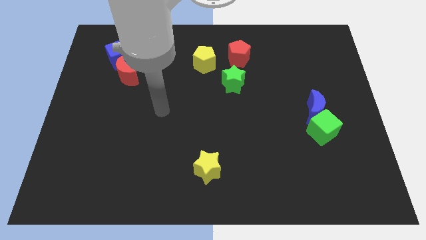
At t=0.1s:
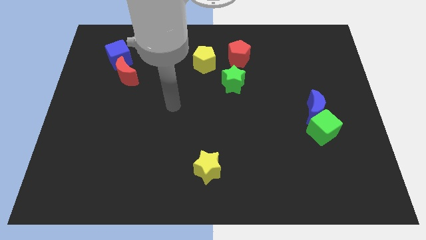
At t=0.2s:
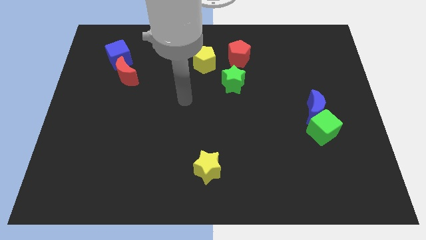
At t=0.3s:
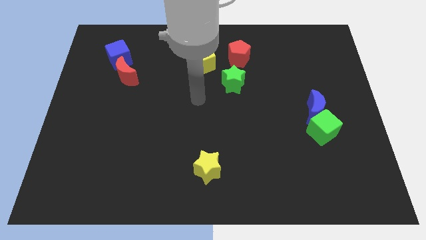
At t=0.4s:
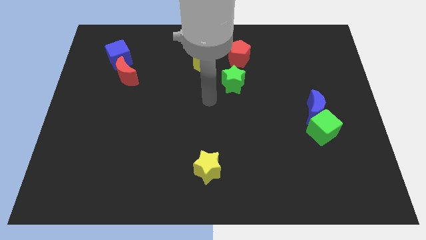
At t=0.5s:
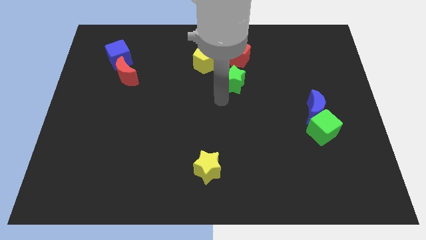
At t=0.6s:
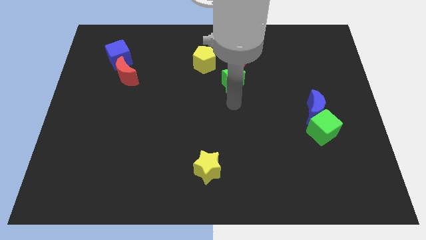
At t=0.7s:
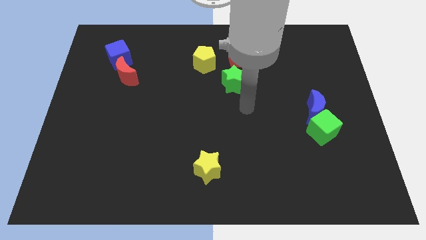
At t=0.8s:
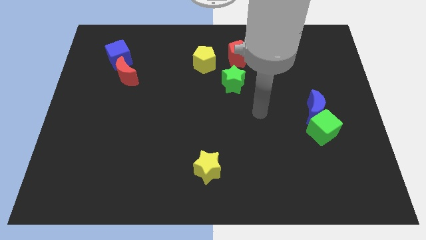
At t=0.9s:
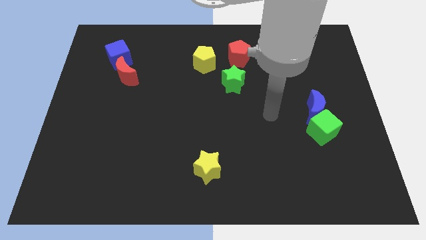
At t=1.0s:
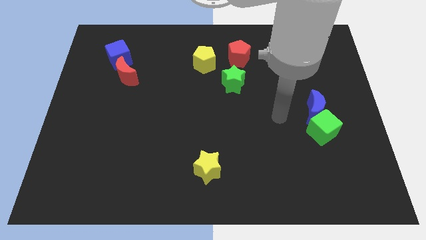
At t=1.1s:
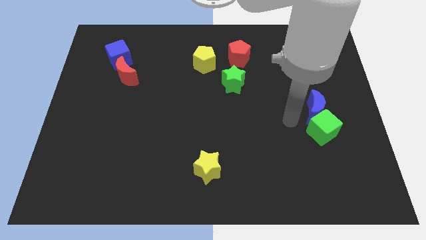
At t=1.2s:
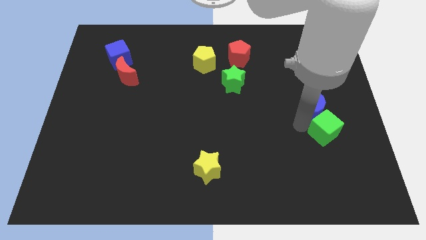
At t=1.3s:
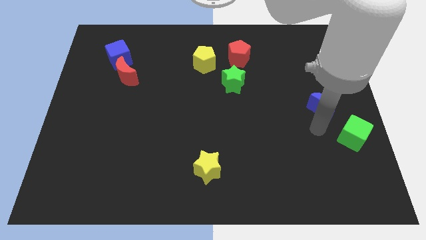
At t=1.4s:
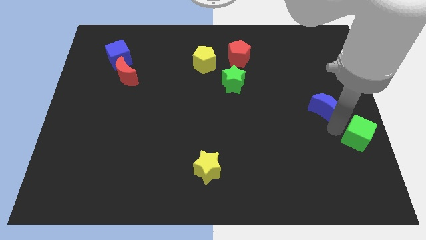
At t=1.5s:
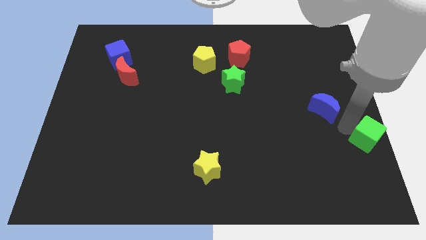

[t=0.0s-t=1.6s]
move the blue moon away from the green cube

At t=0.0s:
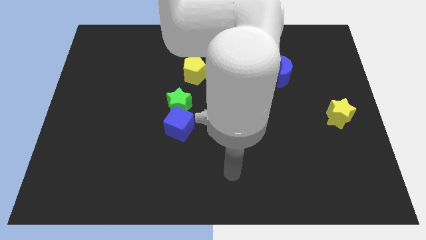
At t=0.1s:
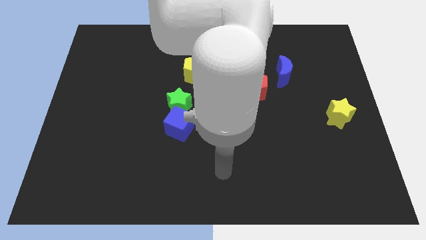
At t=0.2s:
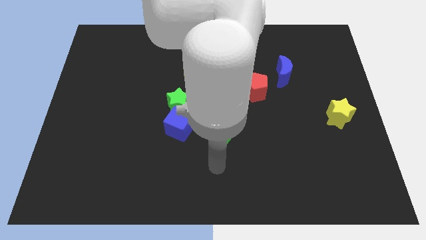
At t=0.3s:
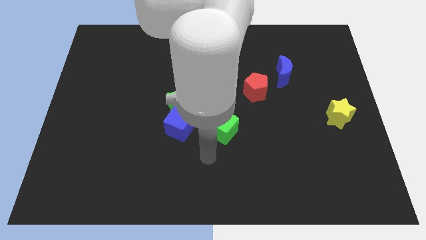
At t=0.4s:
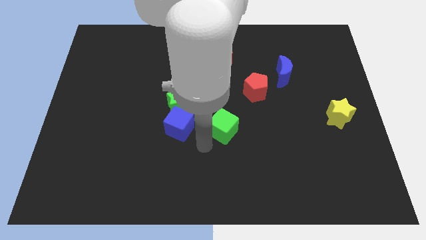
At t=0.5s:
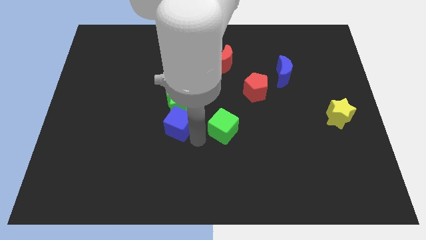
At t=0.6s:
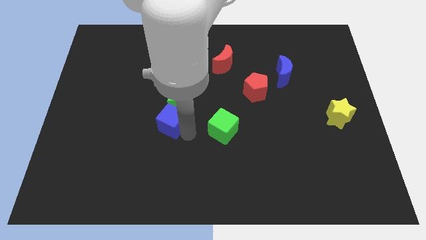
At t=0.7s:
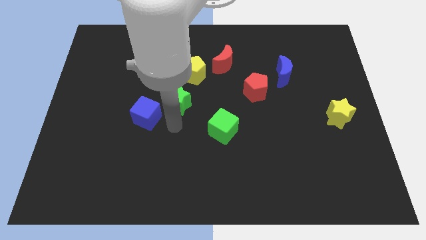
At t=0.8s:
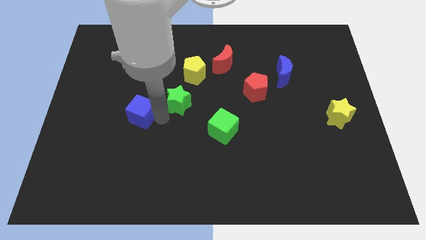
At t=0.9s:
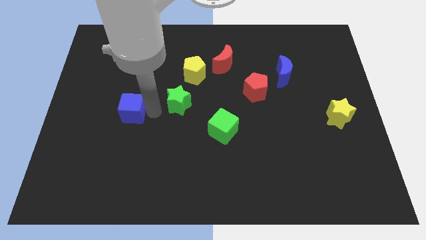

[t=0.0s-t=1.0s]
separate the green star from the blue cube

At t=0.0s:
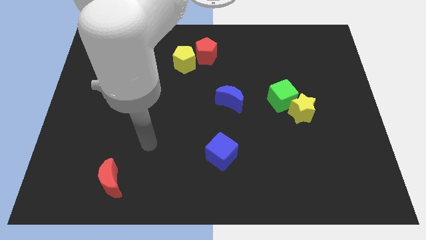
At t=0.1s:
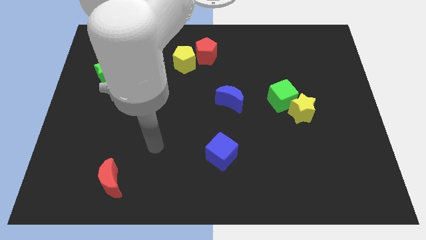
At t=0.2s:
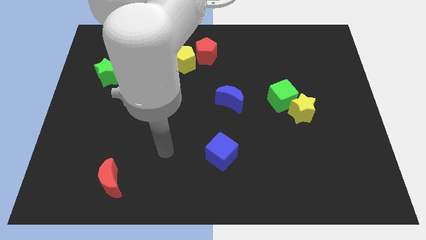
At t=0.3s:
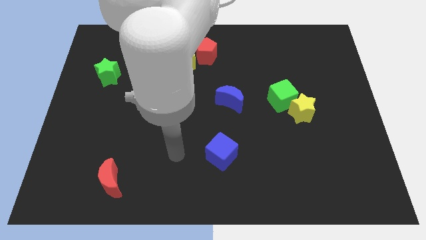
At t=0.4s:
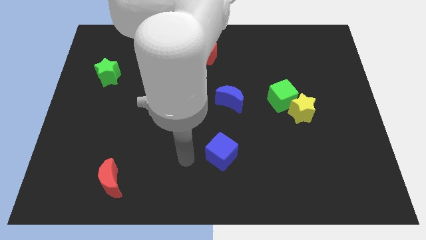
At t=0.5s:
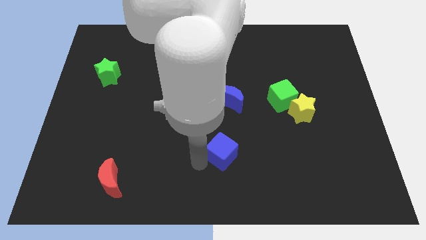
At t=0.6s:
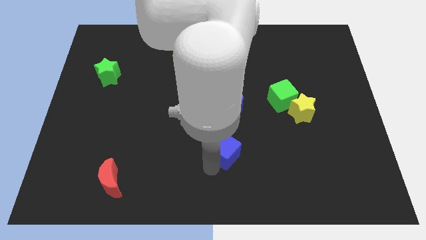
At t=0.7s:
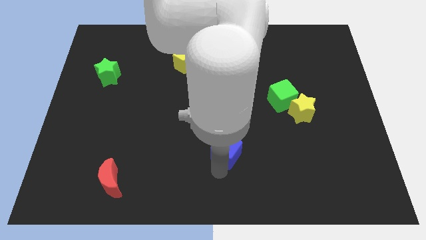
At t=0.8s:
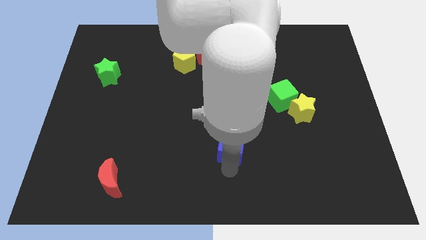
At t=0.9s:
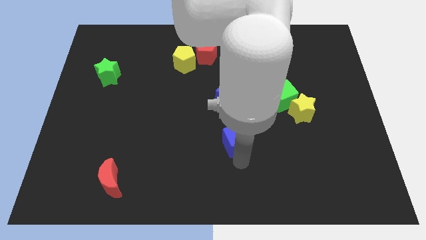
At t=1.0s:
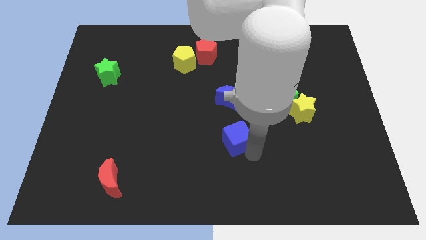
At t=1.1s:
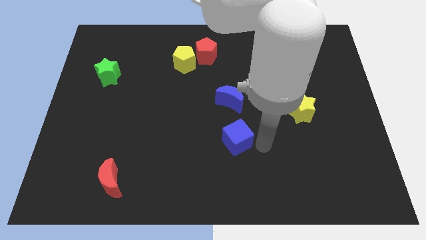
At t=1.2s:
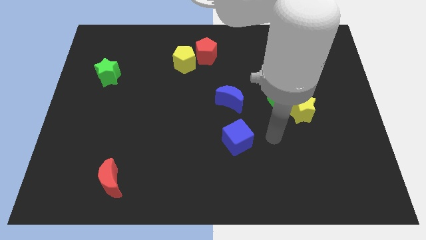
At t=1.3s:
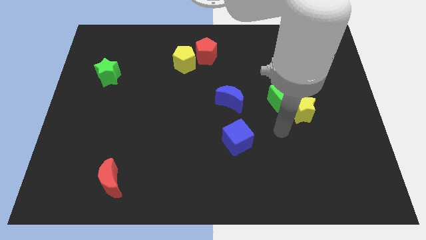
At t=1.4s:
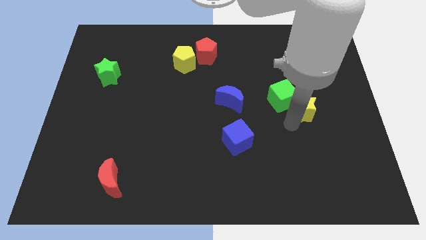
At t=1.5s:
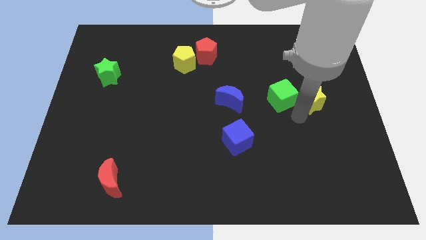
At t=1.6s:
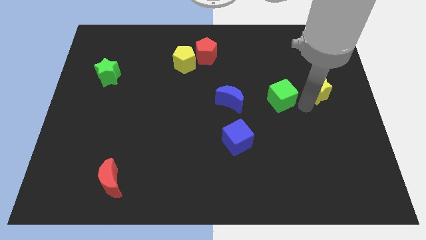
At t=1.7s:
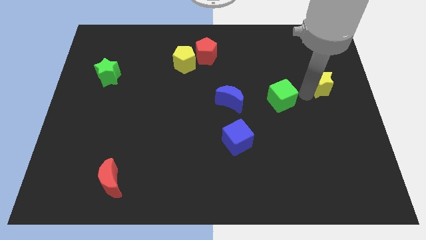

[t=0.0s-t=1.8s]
move the green cube away from the yellow star

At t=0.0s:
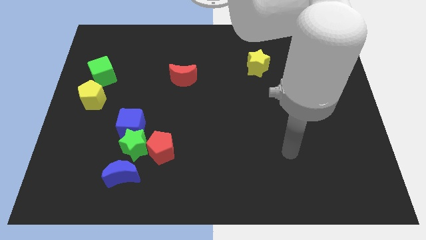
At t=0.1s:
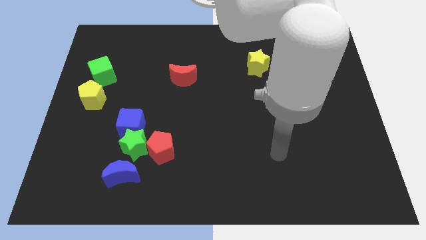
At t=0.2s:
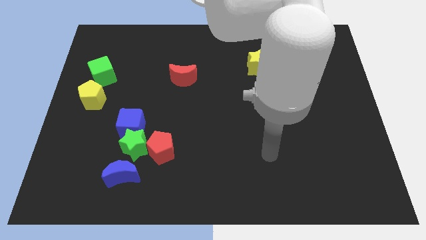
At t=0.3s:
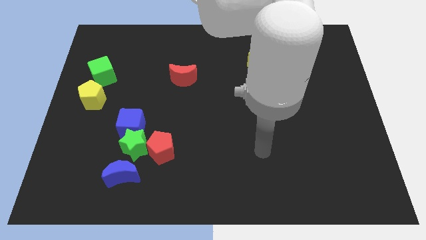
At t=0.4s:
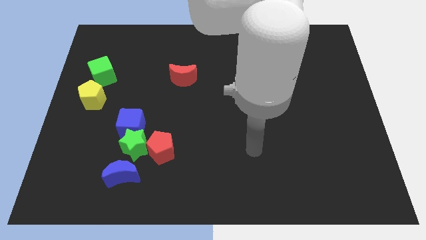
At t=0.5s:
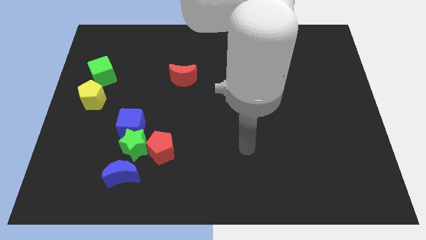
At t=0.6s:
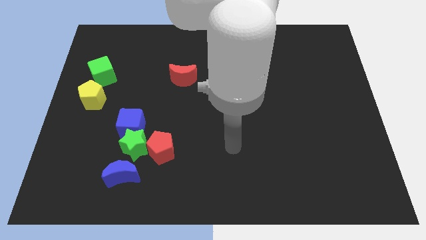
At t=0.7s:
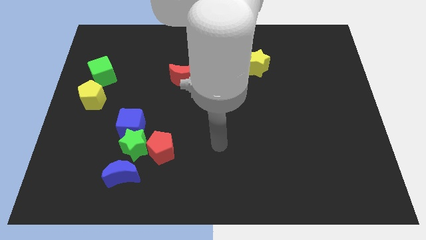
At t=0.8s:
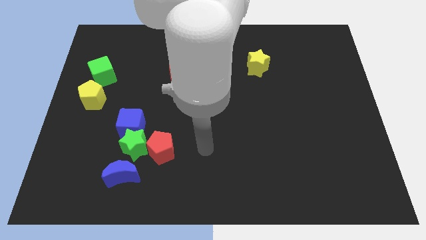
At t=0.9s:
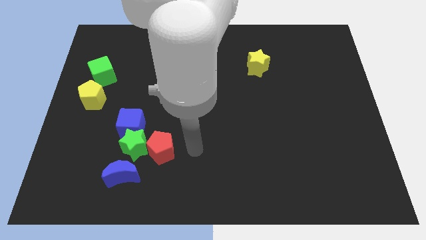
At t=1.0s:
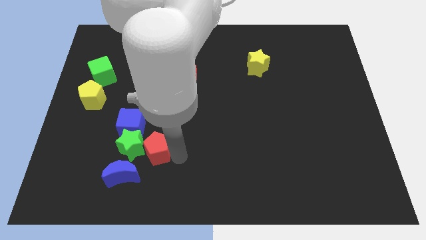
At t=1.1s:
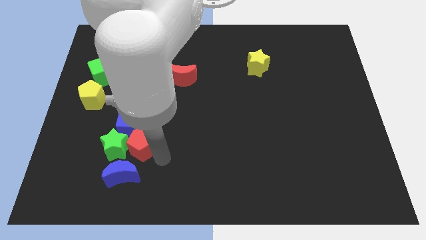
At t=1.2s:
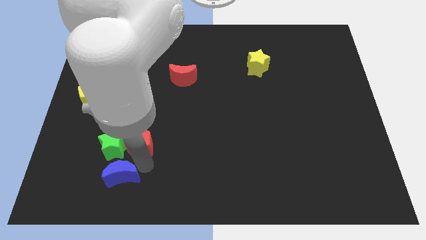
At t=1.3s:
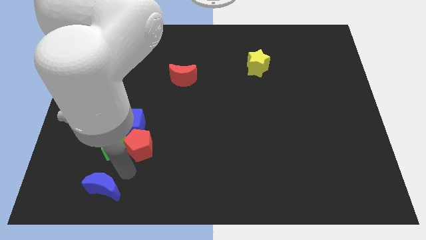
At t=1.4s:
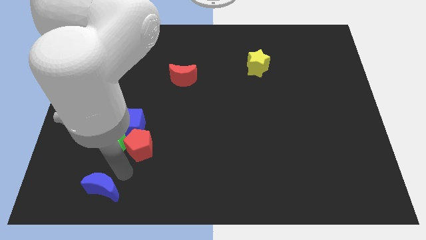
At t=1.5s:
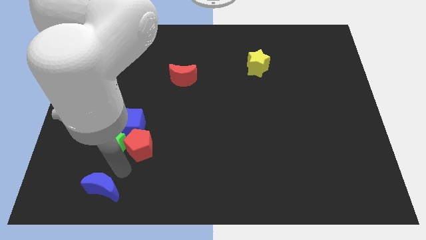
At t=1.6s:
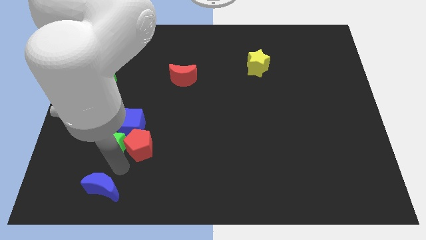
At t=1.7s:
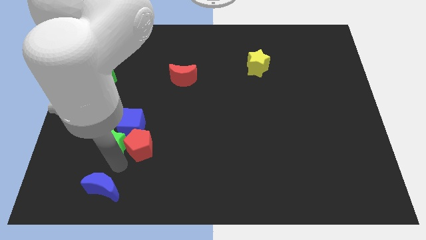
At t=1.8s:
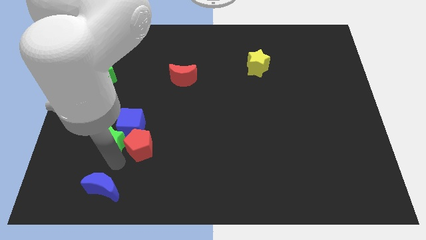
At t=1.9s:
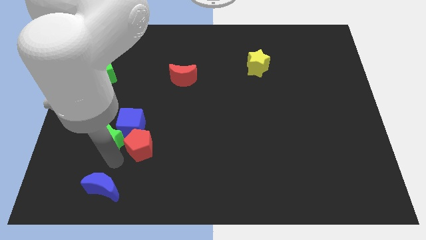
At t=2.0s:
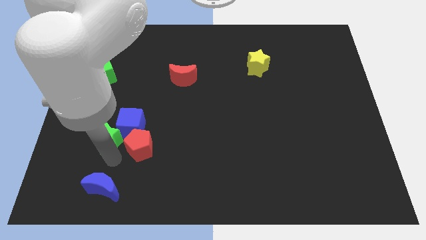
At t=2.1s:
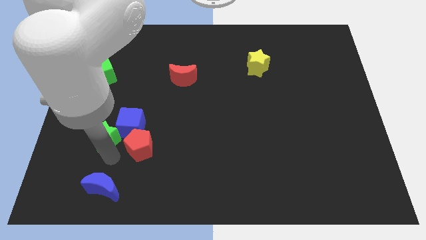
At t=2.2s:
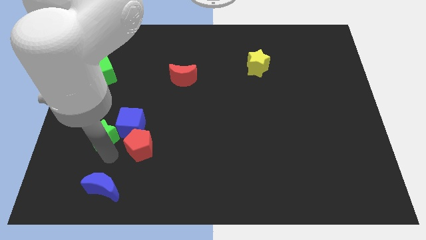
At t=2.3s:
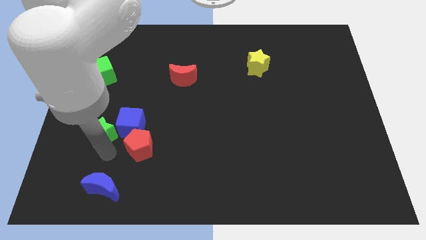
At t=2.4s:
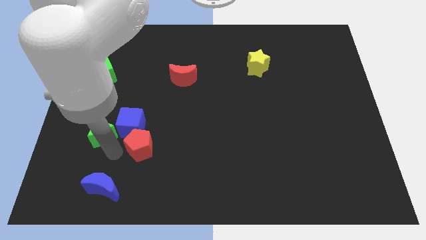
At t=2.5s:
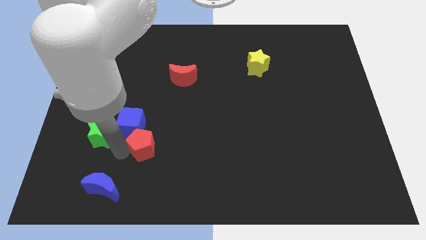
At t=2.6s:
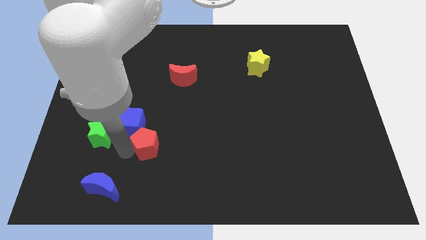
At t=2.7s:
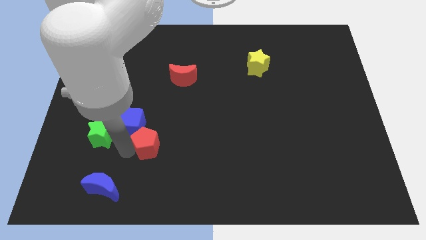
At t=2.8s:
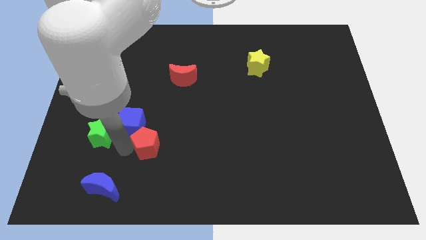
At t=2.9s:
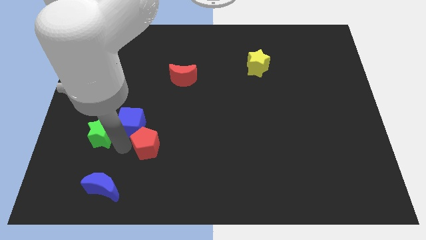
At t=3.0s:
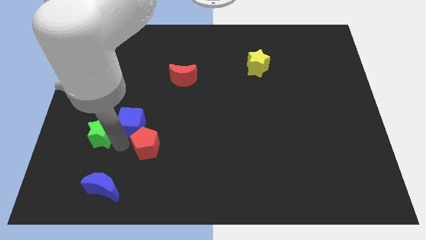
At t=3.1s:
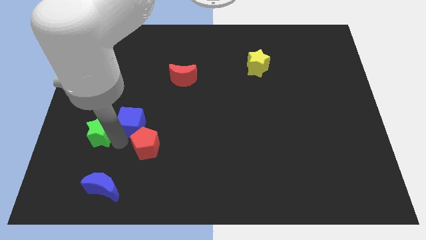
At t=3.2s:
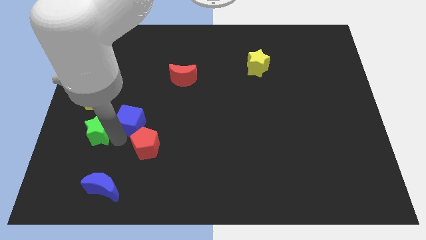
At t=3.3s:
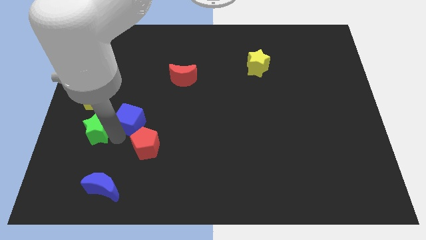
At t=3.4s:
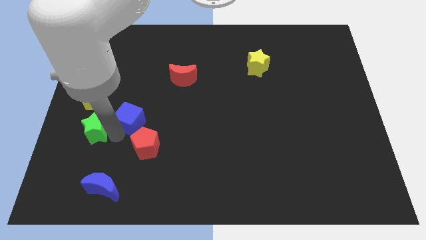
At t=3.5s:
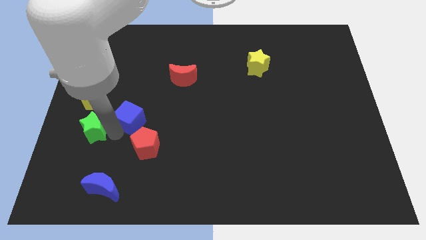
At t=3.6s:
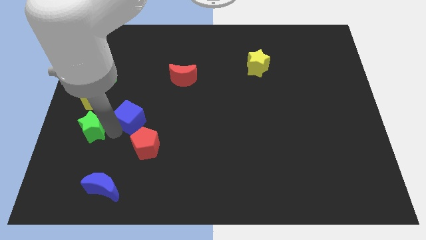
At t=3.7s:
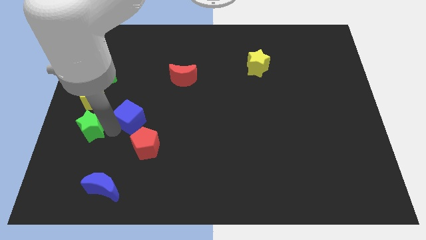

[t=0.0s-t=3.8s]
pull the green star apart from the group of blocks

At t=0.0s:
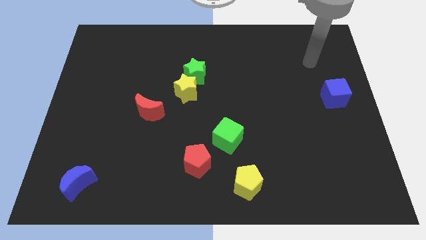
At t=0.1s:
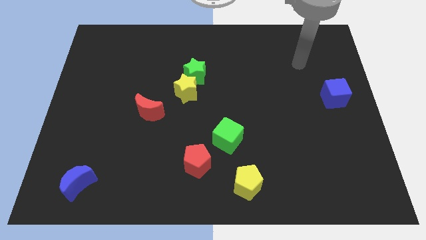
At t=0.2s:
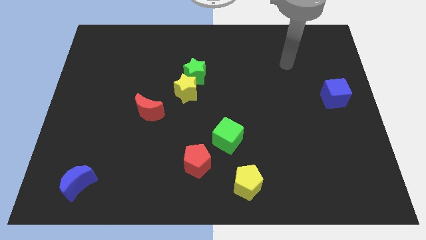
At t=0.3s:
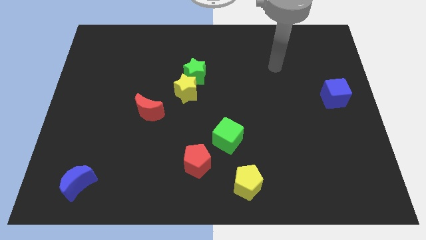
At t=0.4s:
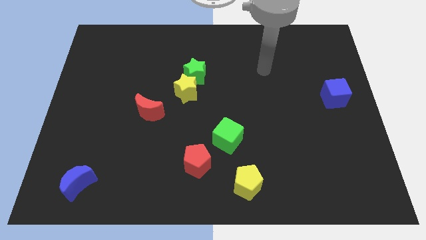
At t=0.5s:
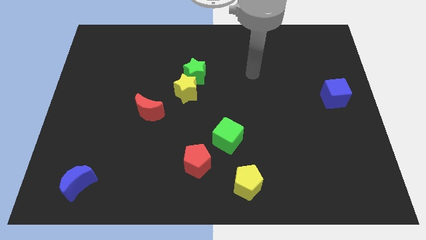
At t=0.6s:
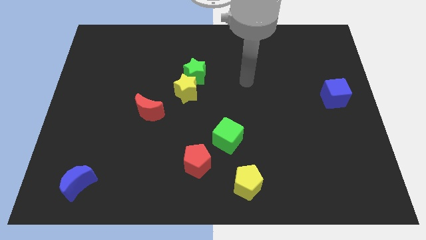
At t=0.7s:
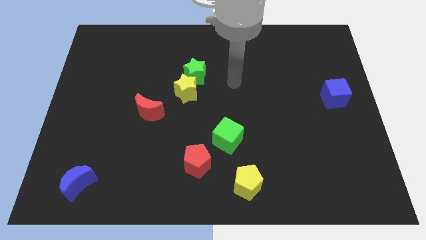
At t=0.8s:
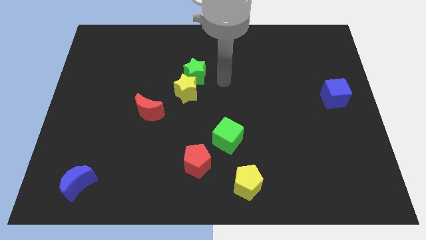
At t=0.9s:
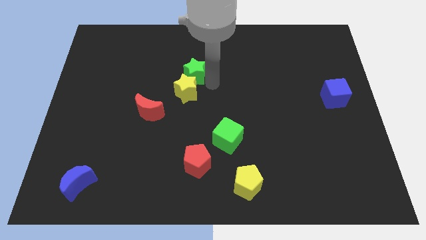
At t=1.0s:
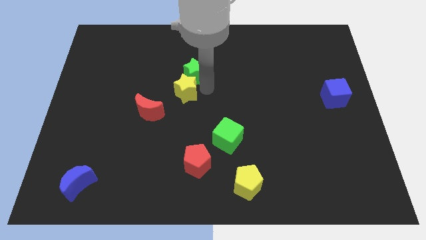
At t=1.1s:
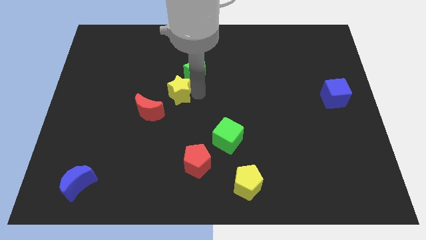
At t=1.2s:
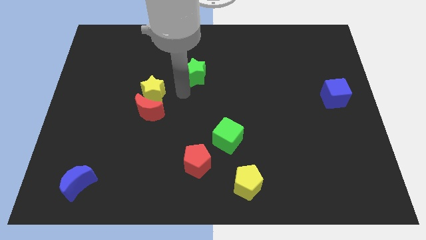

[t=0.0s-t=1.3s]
separate the green star from the yellow star

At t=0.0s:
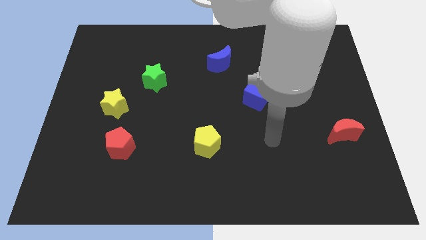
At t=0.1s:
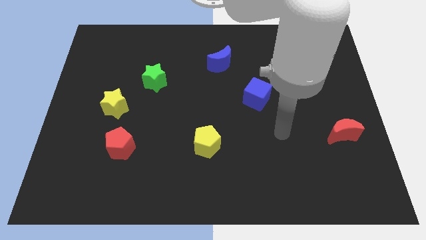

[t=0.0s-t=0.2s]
move the blue cube away from the green cube
